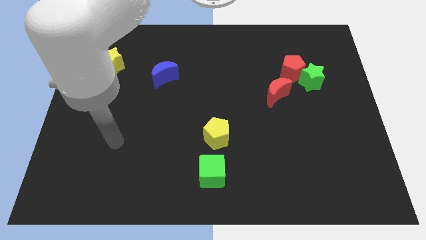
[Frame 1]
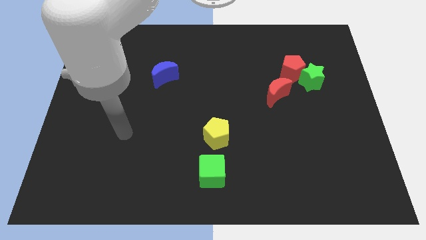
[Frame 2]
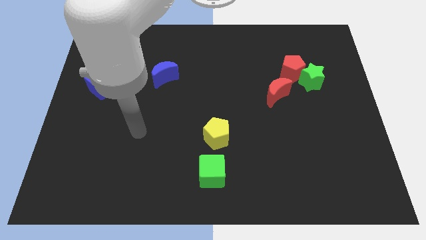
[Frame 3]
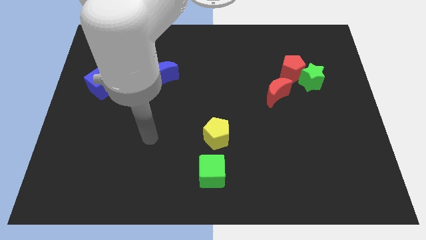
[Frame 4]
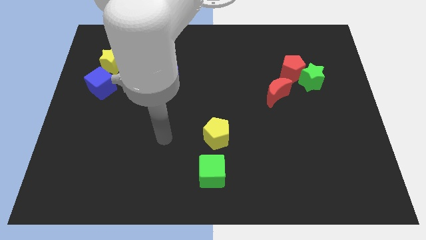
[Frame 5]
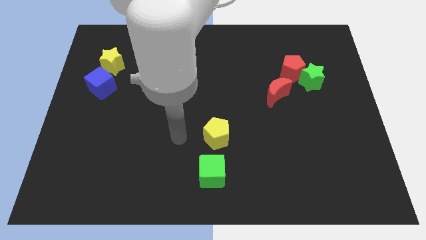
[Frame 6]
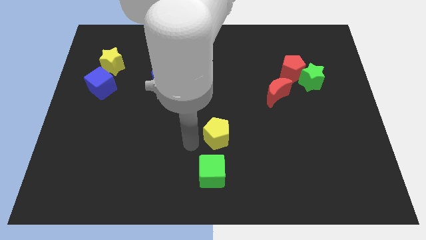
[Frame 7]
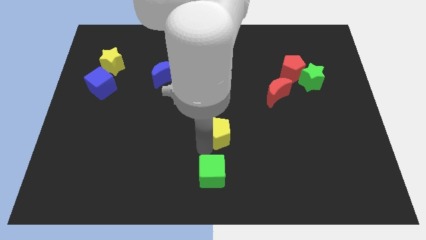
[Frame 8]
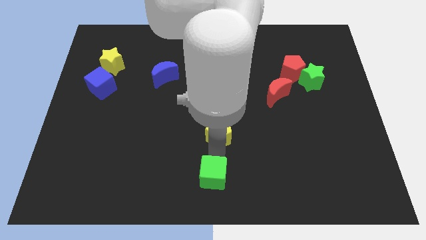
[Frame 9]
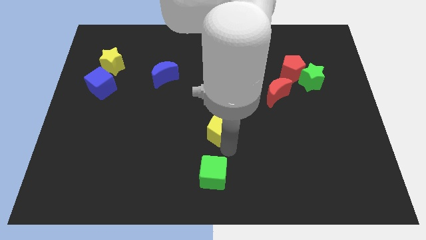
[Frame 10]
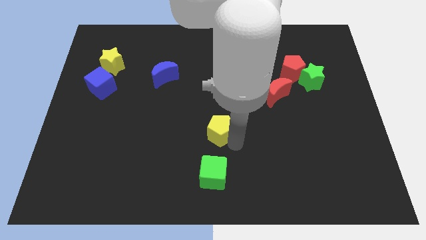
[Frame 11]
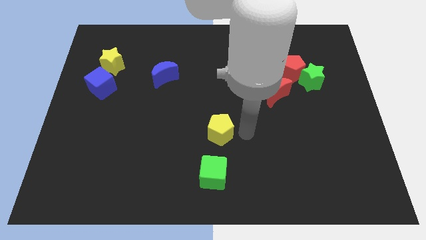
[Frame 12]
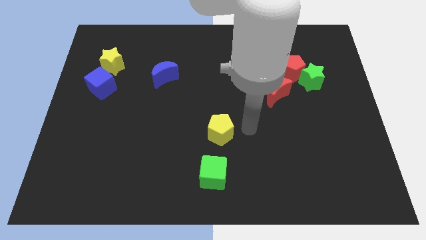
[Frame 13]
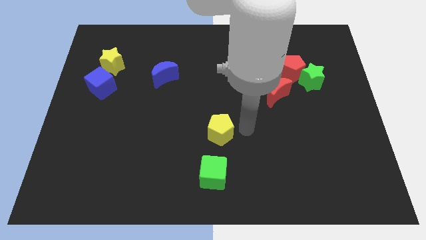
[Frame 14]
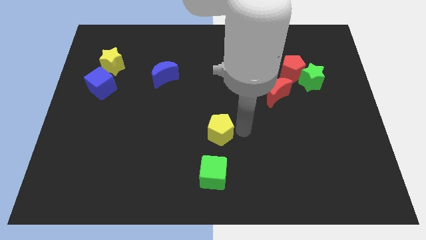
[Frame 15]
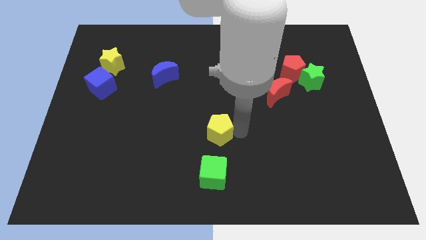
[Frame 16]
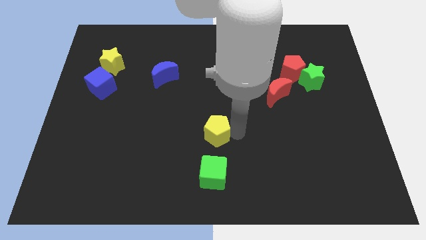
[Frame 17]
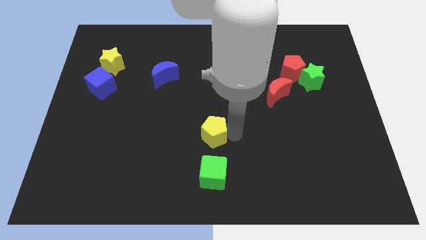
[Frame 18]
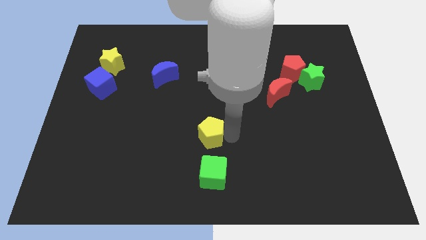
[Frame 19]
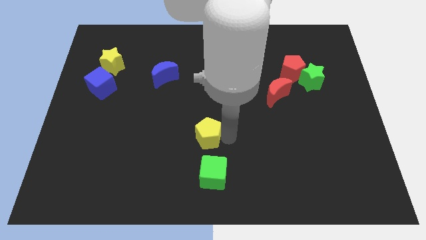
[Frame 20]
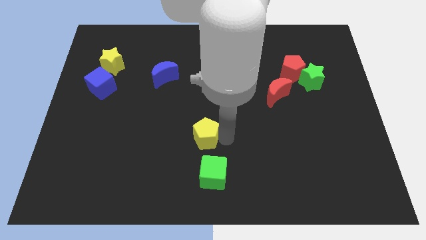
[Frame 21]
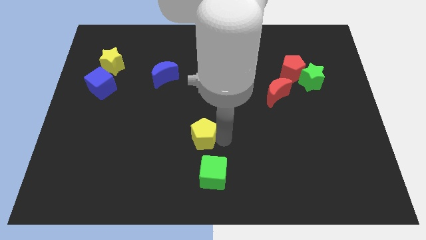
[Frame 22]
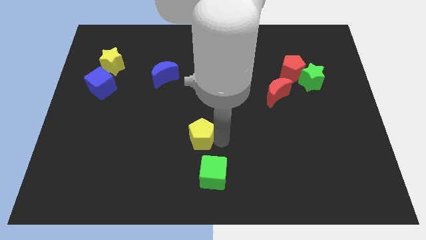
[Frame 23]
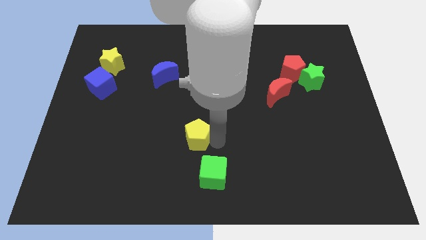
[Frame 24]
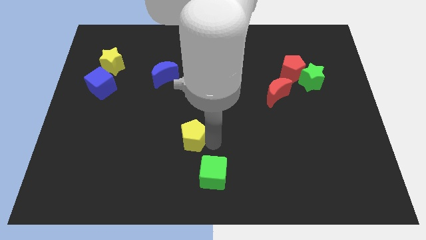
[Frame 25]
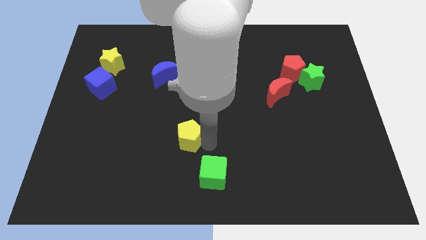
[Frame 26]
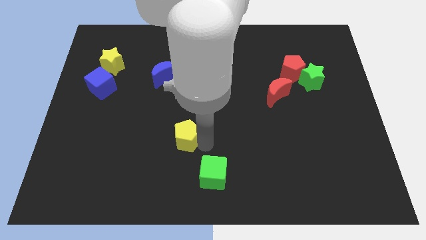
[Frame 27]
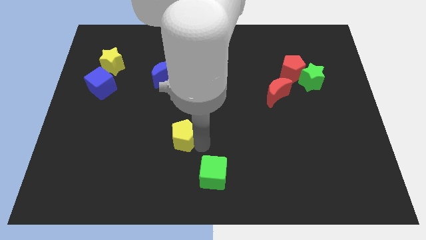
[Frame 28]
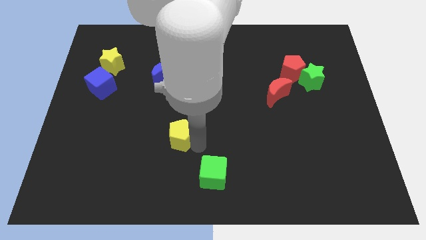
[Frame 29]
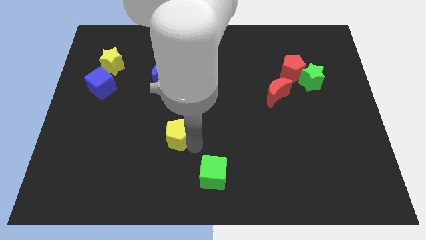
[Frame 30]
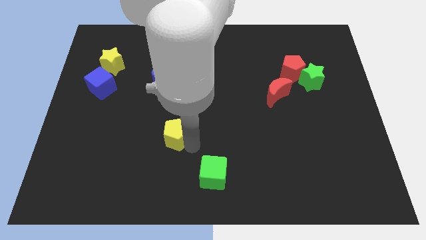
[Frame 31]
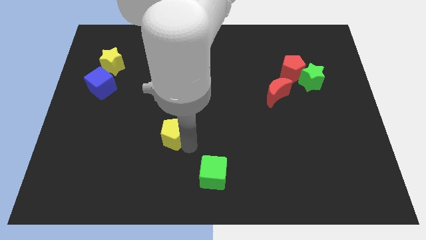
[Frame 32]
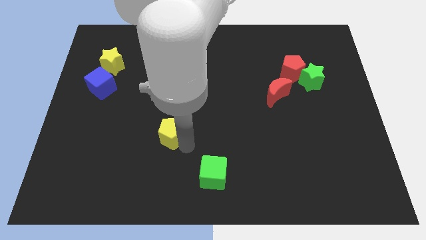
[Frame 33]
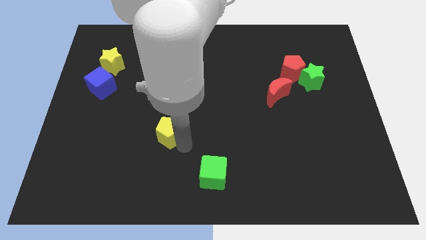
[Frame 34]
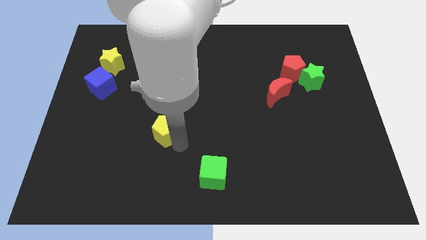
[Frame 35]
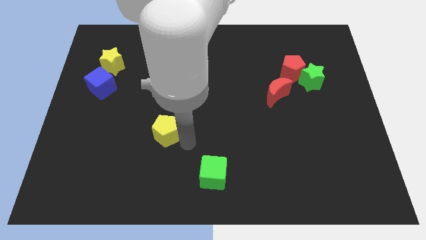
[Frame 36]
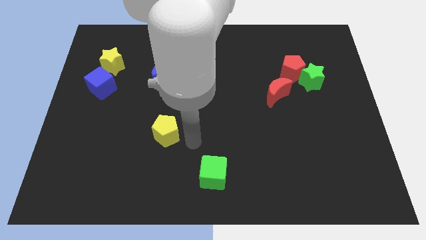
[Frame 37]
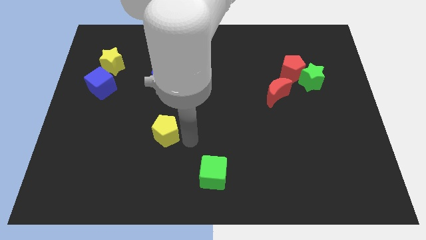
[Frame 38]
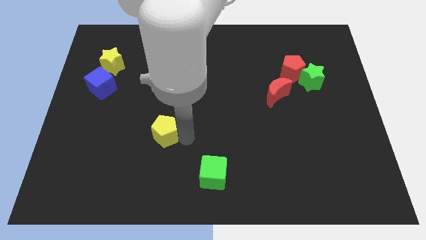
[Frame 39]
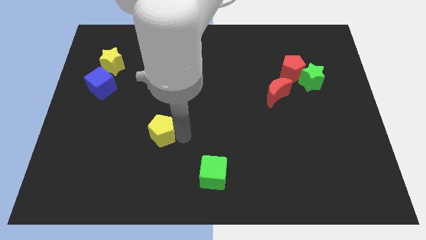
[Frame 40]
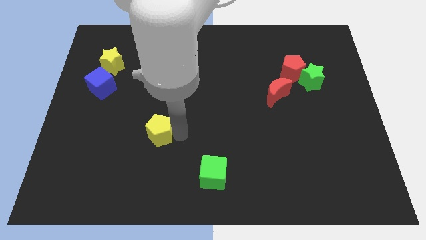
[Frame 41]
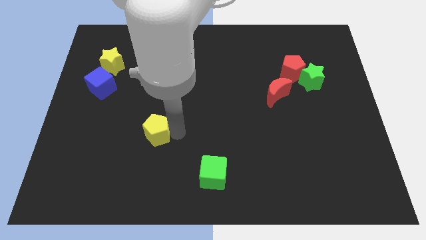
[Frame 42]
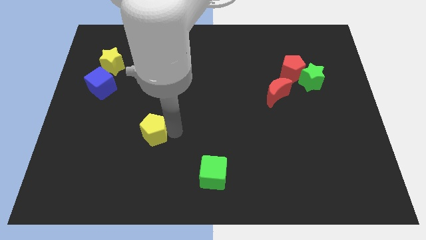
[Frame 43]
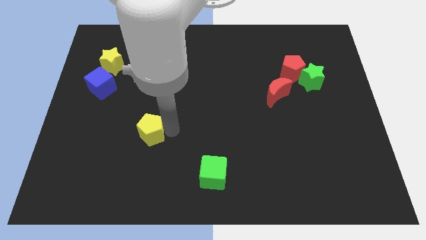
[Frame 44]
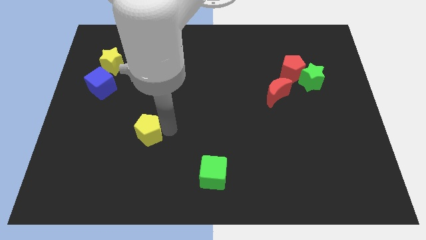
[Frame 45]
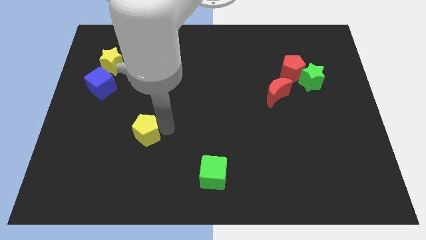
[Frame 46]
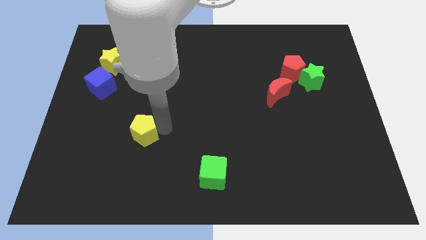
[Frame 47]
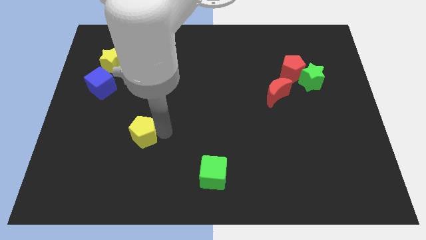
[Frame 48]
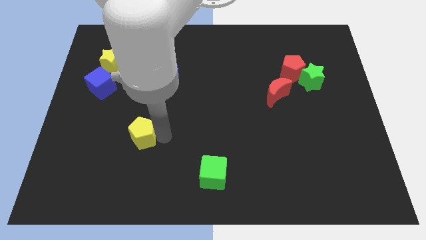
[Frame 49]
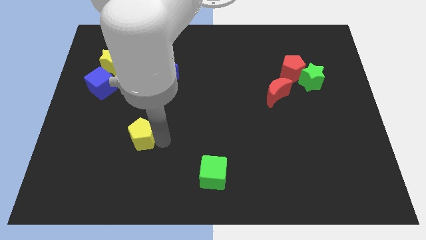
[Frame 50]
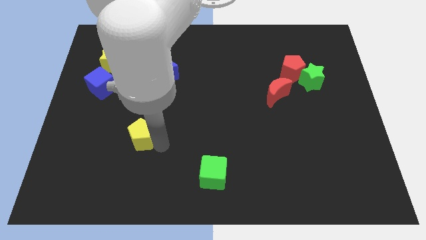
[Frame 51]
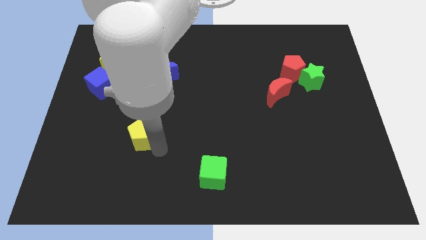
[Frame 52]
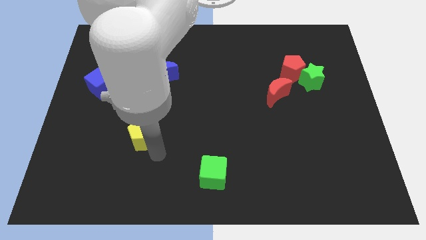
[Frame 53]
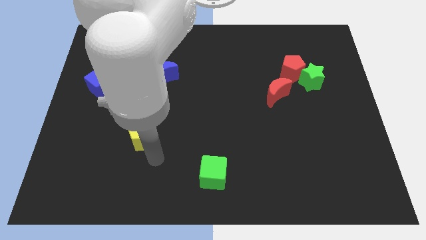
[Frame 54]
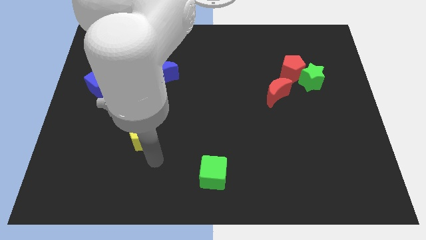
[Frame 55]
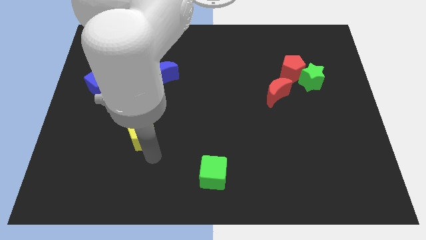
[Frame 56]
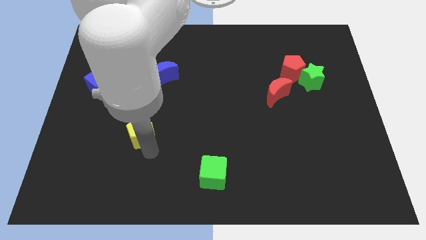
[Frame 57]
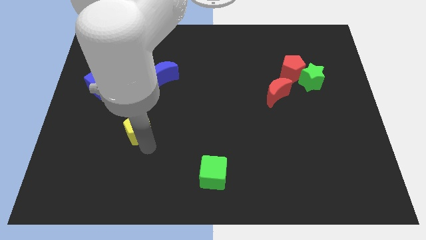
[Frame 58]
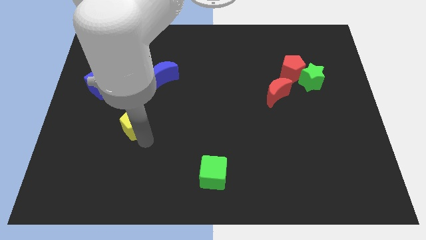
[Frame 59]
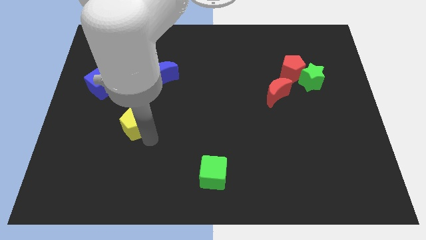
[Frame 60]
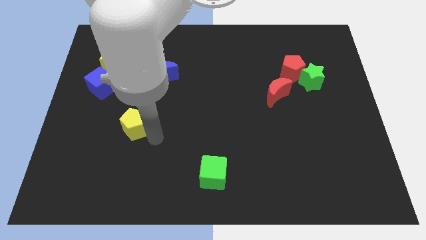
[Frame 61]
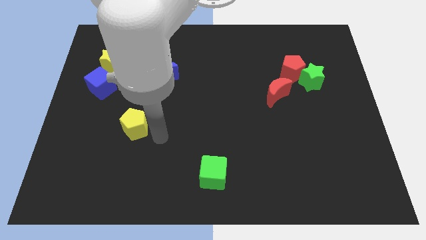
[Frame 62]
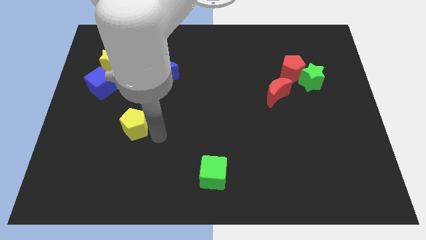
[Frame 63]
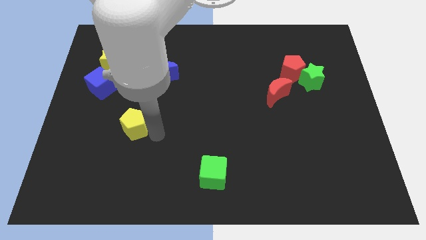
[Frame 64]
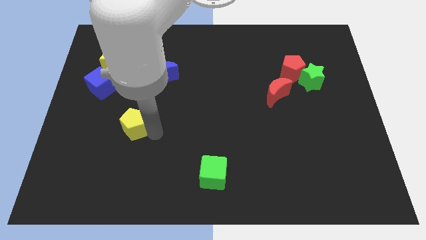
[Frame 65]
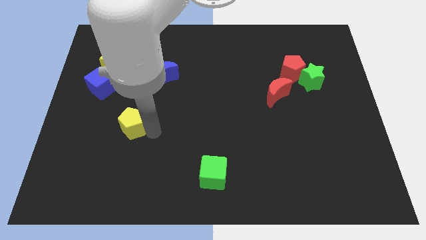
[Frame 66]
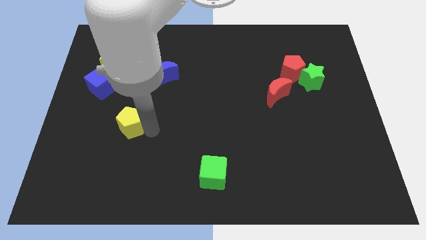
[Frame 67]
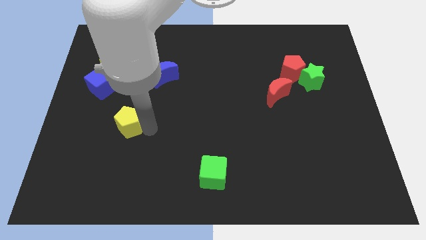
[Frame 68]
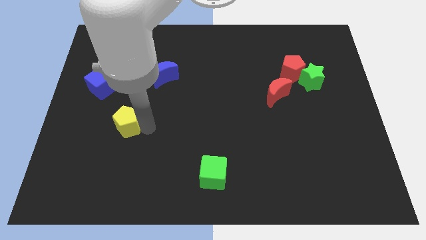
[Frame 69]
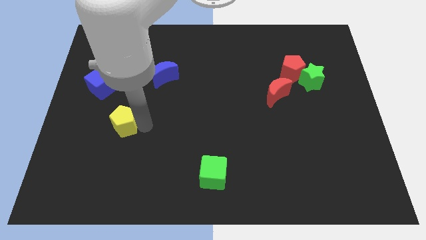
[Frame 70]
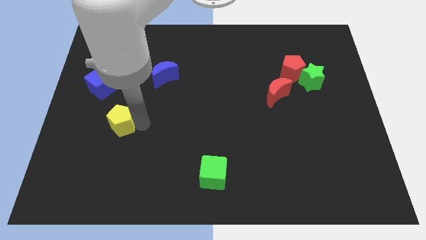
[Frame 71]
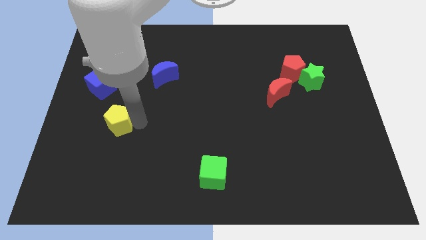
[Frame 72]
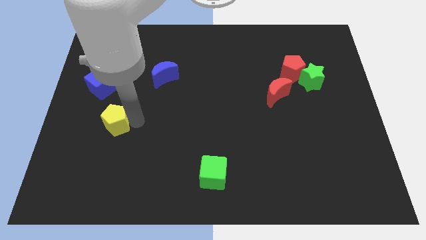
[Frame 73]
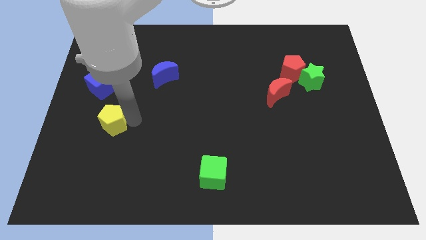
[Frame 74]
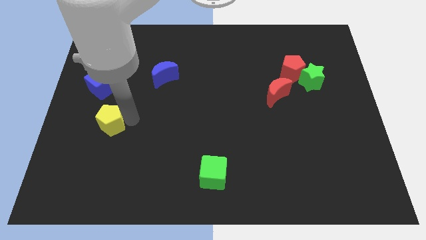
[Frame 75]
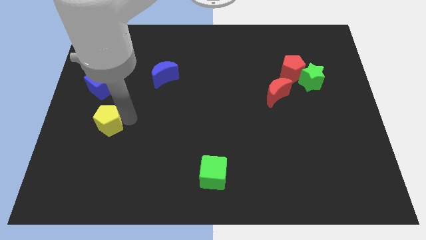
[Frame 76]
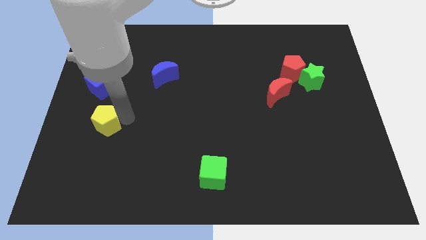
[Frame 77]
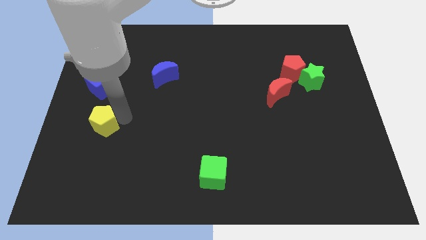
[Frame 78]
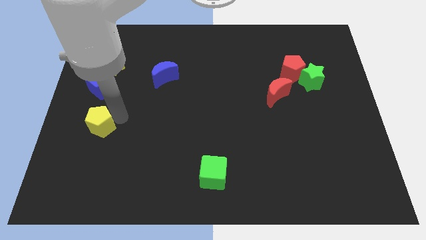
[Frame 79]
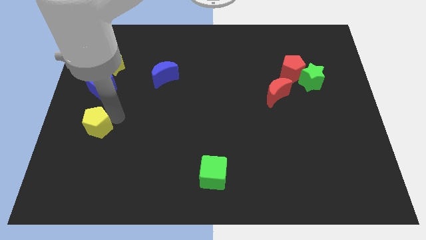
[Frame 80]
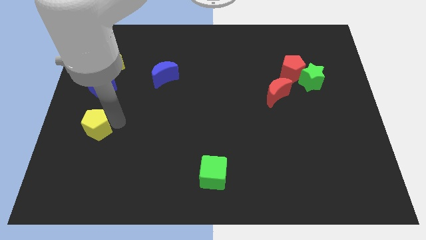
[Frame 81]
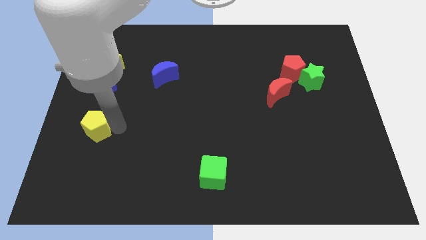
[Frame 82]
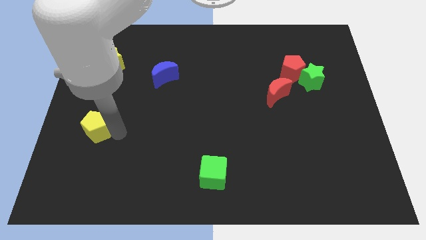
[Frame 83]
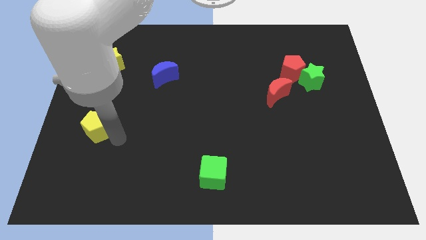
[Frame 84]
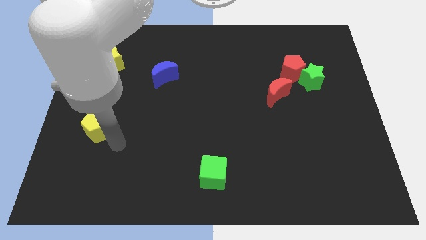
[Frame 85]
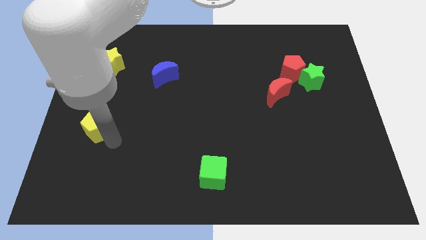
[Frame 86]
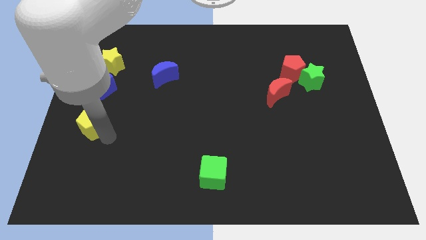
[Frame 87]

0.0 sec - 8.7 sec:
push the yellow pentagon to the left side of the board
